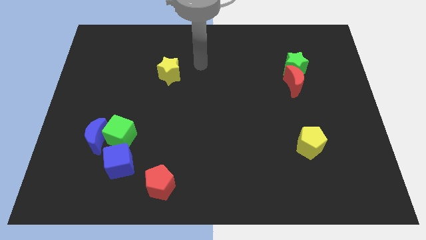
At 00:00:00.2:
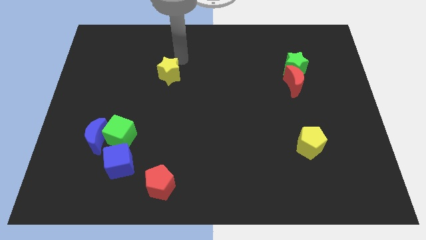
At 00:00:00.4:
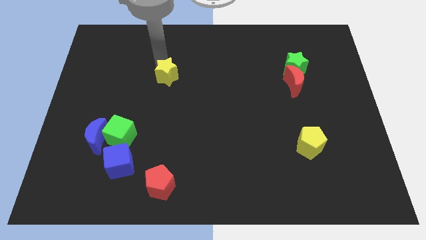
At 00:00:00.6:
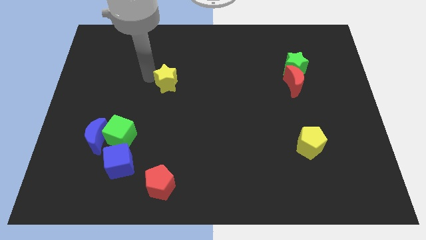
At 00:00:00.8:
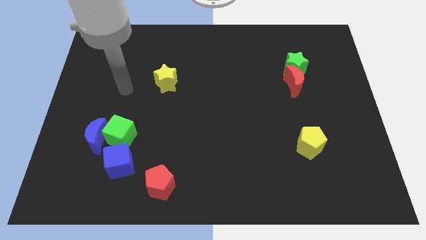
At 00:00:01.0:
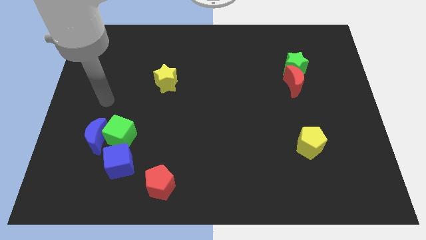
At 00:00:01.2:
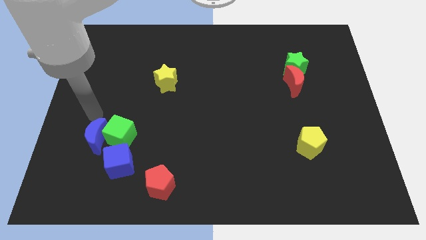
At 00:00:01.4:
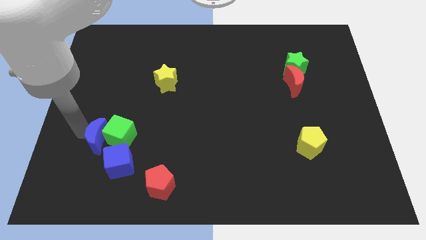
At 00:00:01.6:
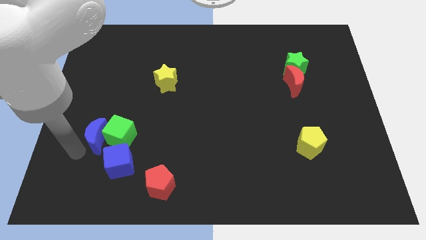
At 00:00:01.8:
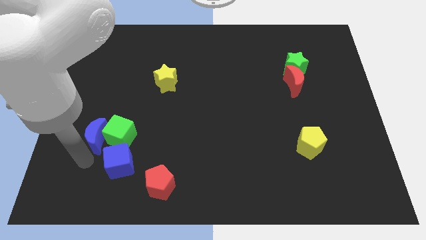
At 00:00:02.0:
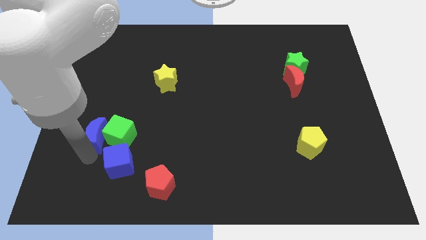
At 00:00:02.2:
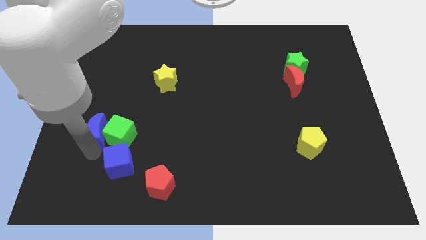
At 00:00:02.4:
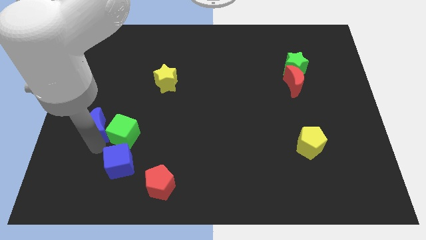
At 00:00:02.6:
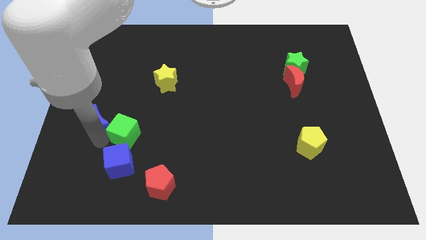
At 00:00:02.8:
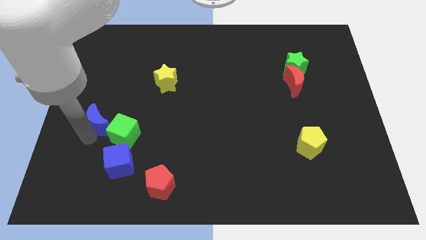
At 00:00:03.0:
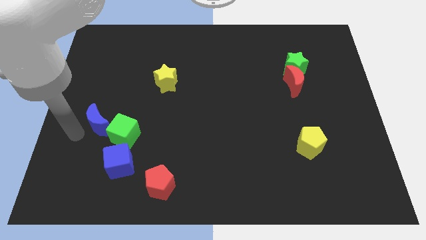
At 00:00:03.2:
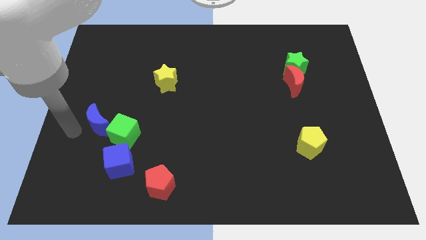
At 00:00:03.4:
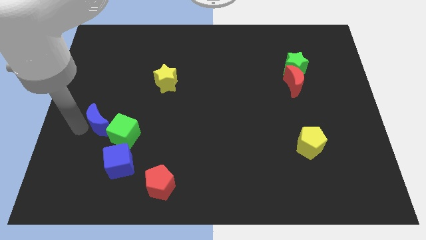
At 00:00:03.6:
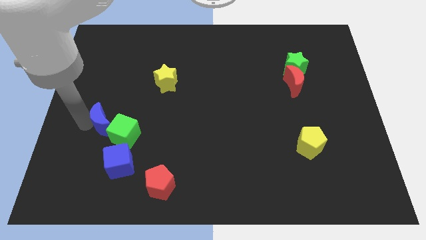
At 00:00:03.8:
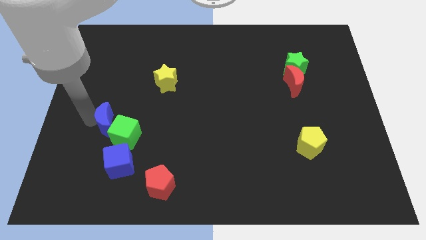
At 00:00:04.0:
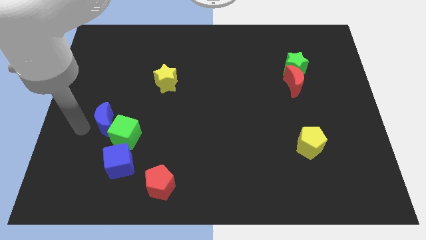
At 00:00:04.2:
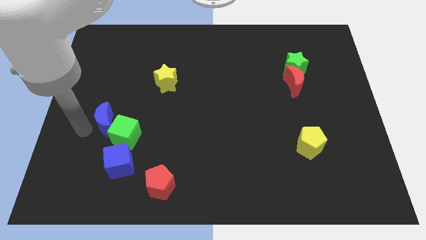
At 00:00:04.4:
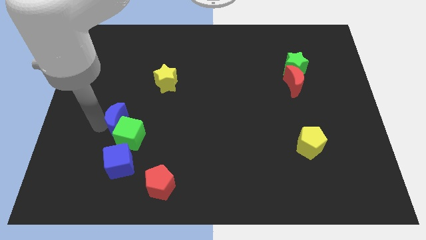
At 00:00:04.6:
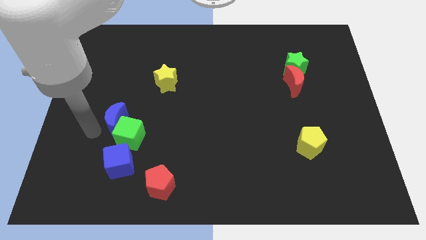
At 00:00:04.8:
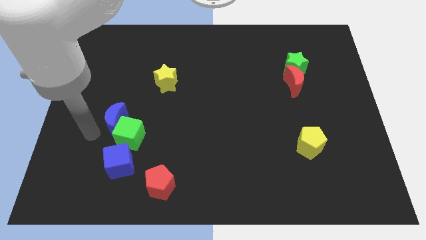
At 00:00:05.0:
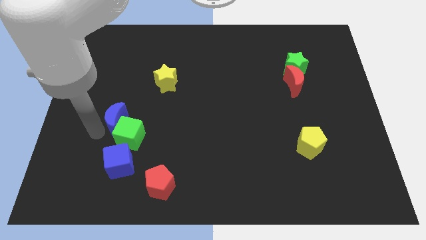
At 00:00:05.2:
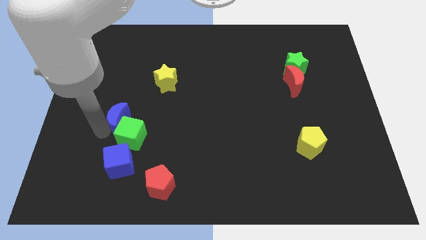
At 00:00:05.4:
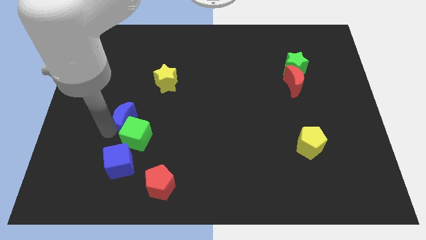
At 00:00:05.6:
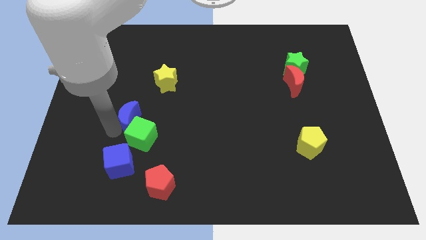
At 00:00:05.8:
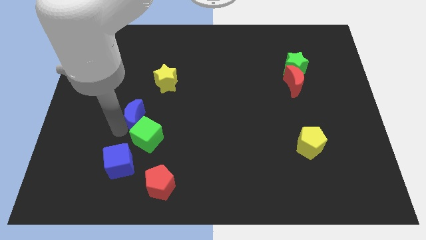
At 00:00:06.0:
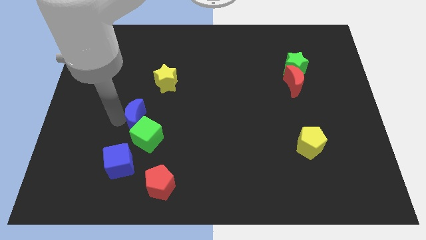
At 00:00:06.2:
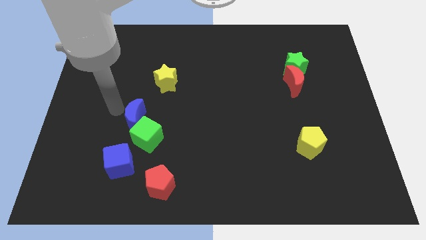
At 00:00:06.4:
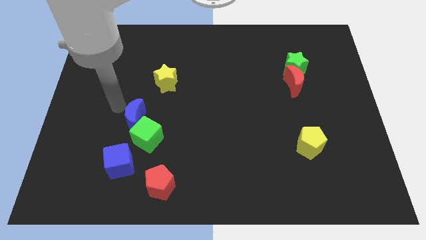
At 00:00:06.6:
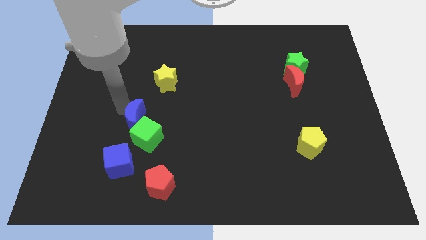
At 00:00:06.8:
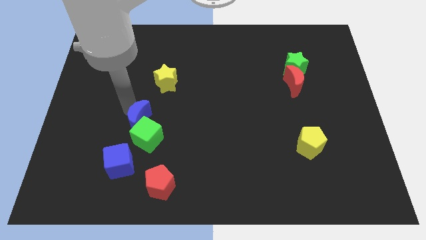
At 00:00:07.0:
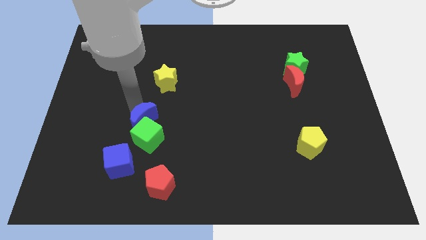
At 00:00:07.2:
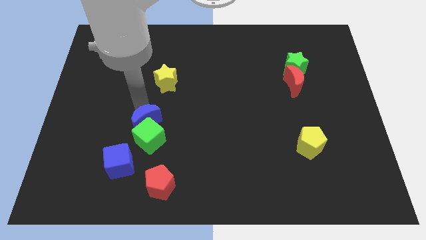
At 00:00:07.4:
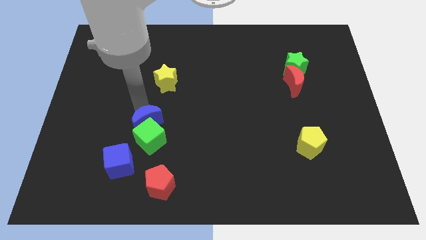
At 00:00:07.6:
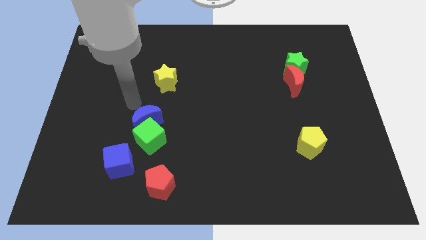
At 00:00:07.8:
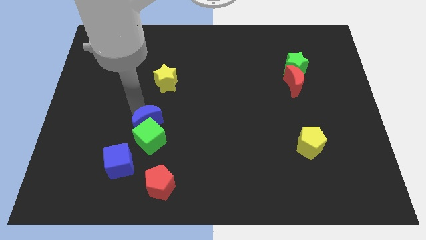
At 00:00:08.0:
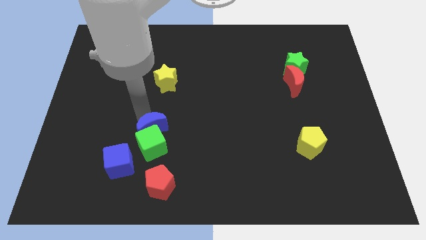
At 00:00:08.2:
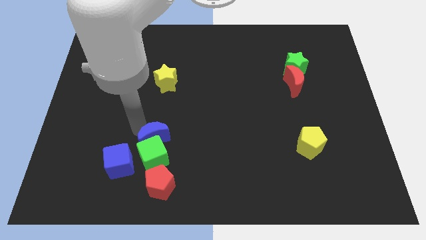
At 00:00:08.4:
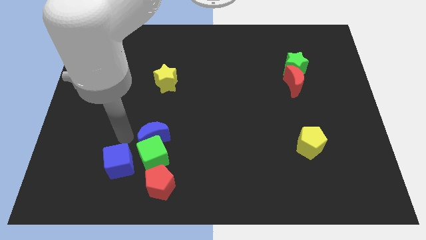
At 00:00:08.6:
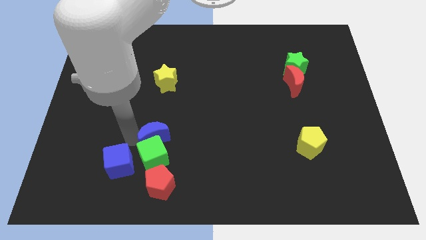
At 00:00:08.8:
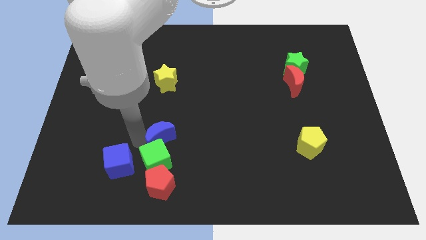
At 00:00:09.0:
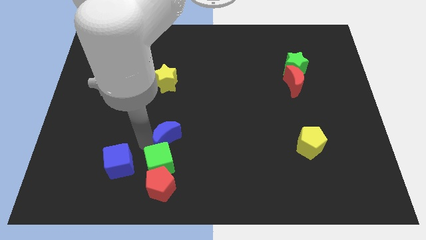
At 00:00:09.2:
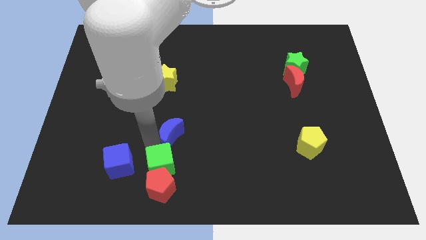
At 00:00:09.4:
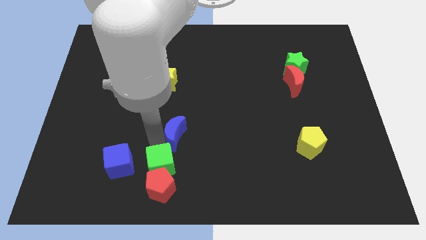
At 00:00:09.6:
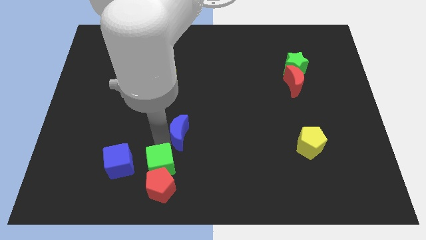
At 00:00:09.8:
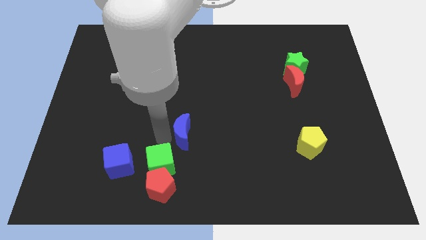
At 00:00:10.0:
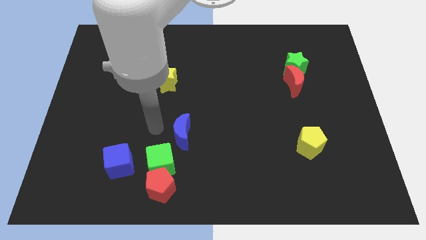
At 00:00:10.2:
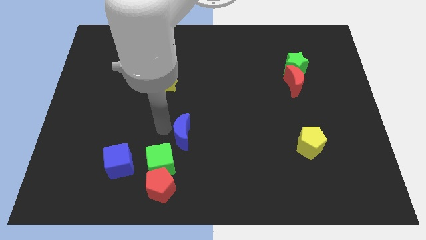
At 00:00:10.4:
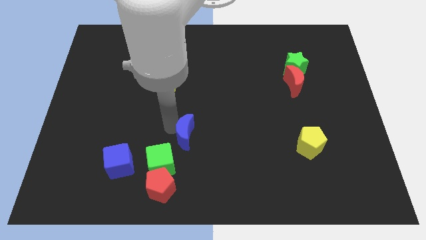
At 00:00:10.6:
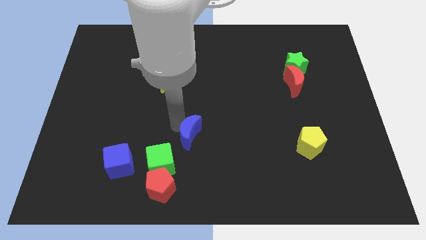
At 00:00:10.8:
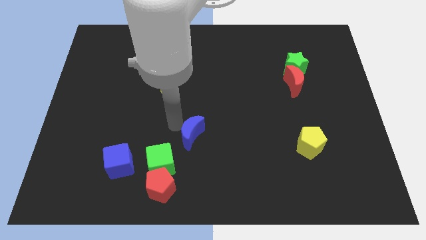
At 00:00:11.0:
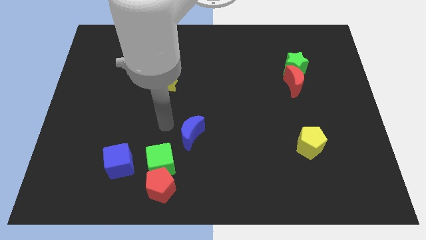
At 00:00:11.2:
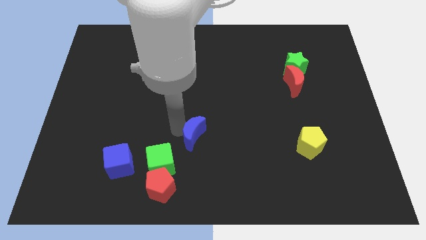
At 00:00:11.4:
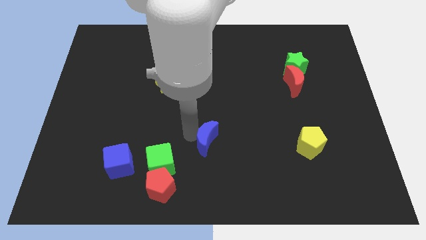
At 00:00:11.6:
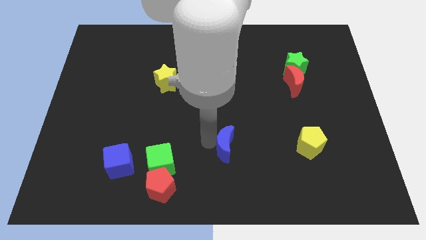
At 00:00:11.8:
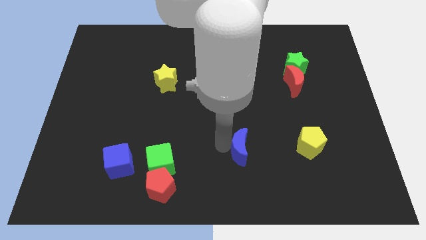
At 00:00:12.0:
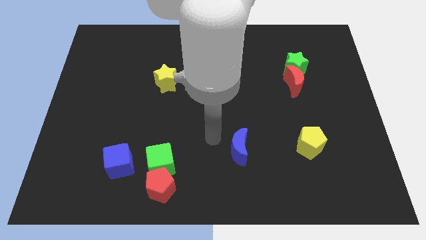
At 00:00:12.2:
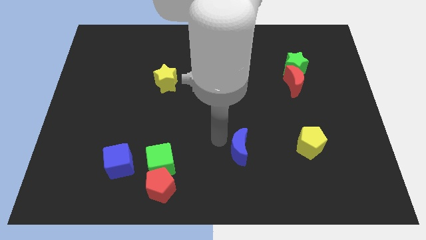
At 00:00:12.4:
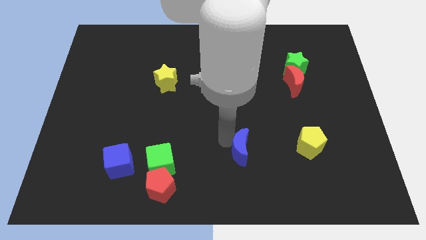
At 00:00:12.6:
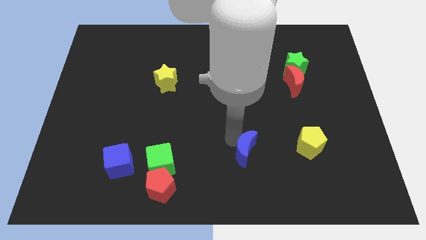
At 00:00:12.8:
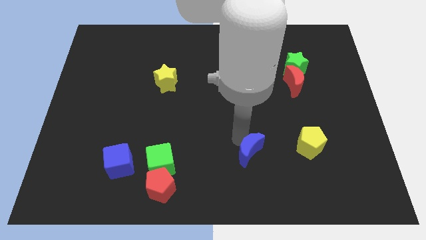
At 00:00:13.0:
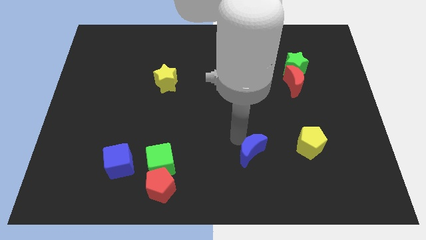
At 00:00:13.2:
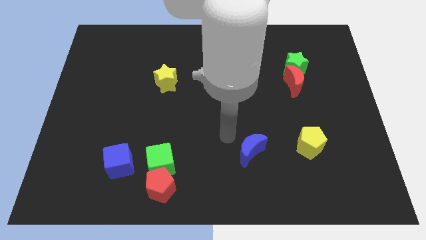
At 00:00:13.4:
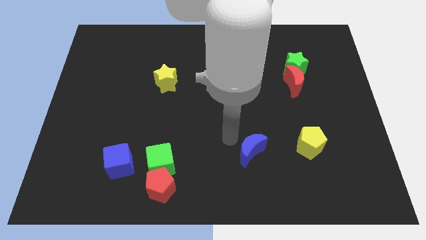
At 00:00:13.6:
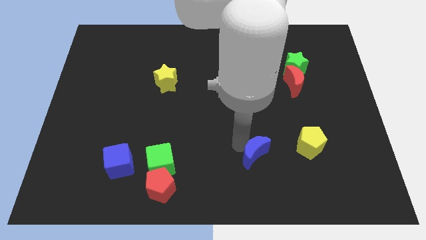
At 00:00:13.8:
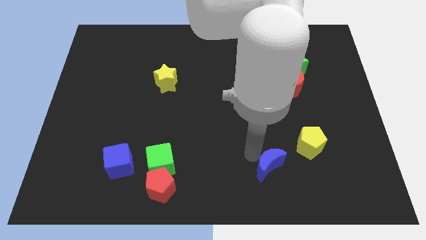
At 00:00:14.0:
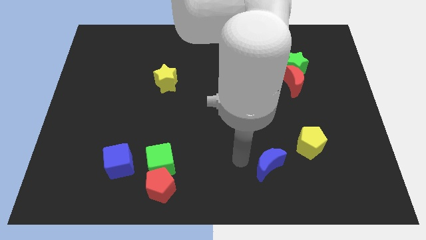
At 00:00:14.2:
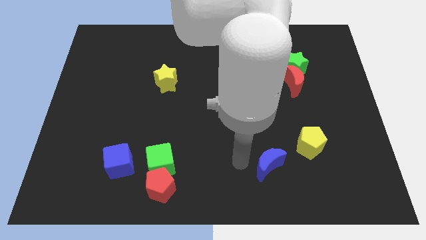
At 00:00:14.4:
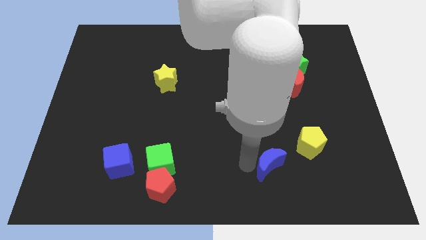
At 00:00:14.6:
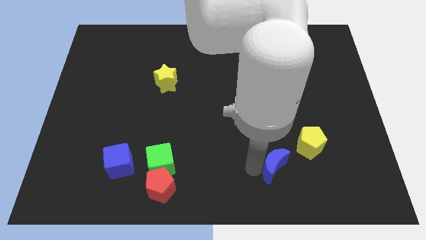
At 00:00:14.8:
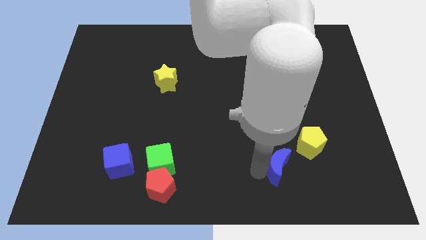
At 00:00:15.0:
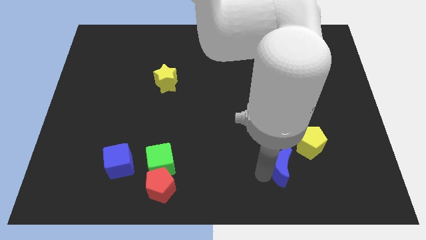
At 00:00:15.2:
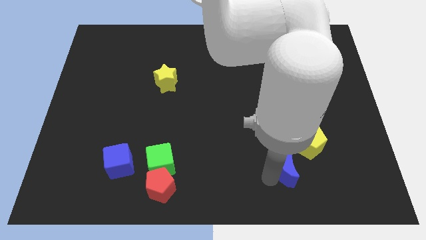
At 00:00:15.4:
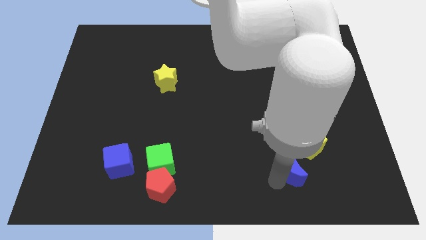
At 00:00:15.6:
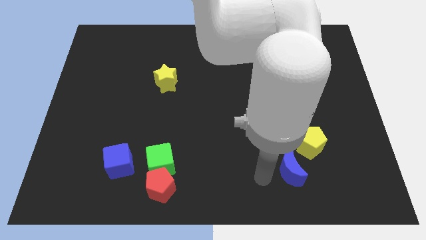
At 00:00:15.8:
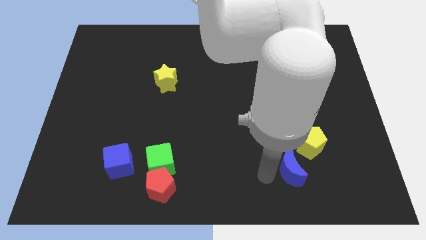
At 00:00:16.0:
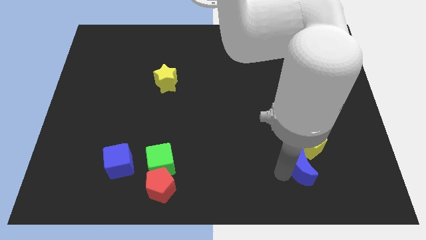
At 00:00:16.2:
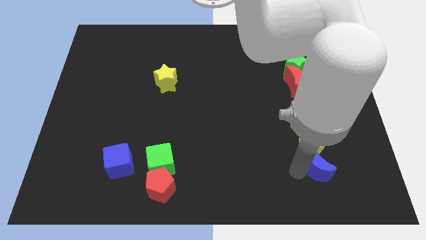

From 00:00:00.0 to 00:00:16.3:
slide the blue moon to the bottom right side of the yellow pentagon
